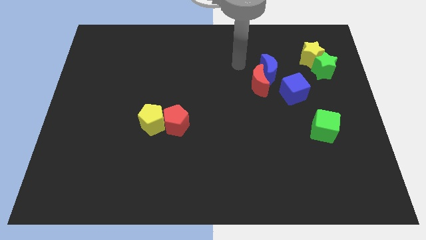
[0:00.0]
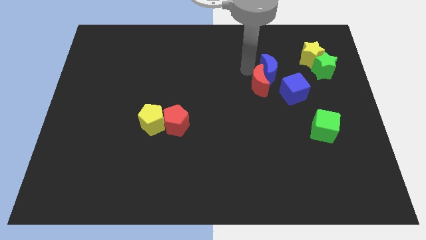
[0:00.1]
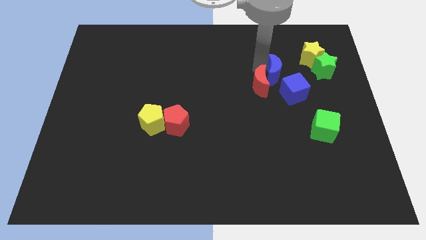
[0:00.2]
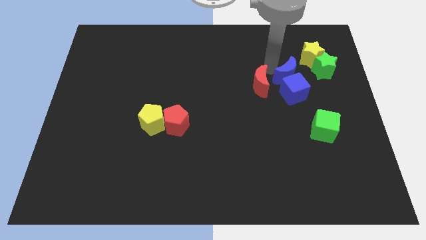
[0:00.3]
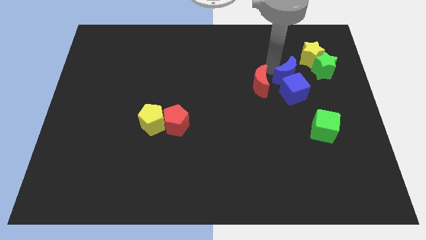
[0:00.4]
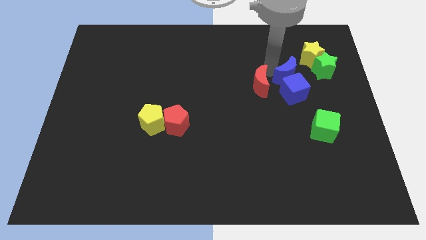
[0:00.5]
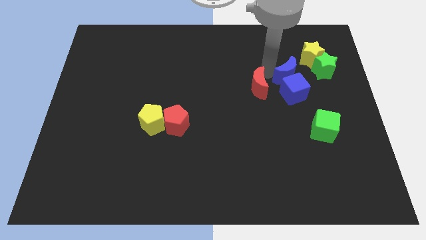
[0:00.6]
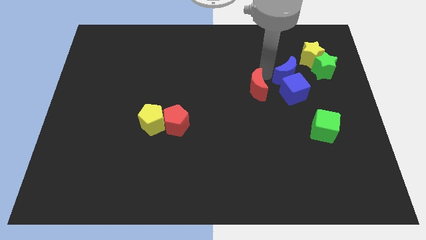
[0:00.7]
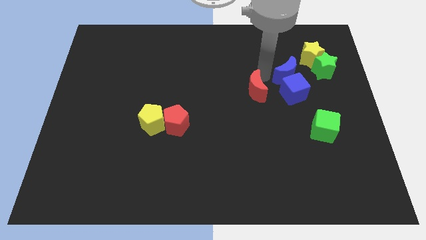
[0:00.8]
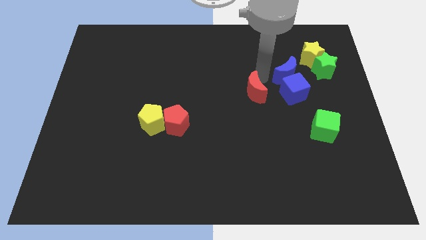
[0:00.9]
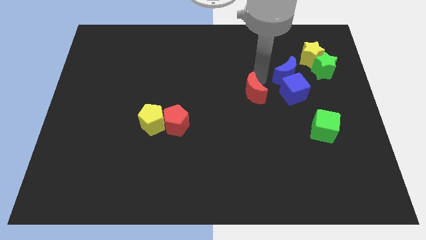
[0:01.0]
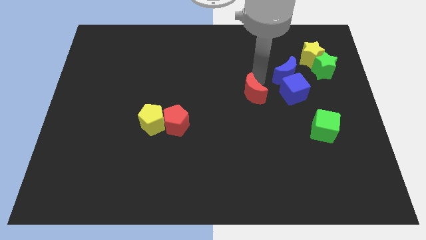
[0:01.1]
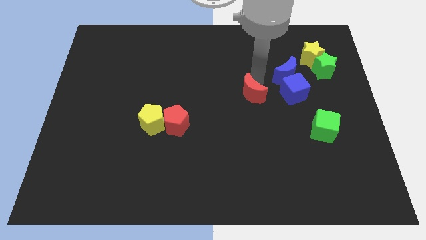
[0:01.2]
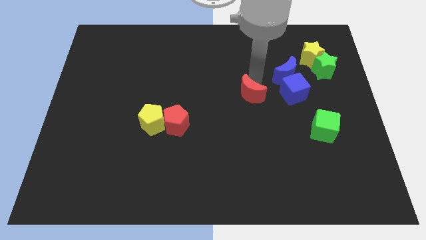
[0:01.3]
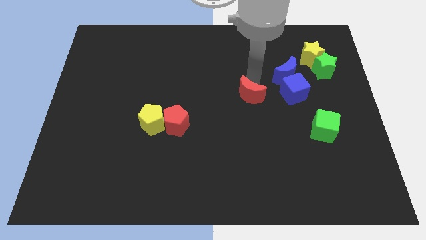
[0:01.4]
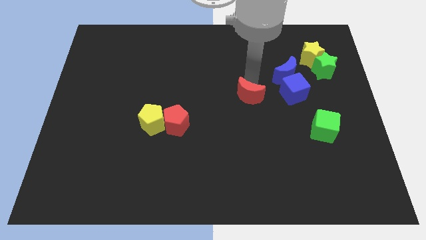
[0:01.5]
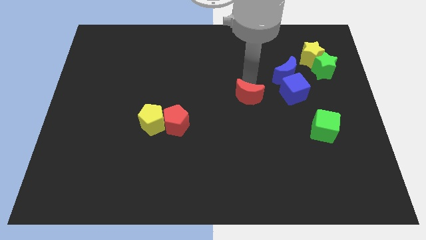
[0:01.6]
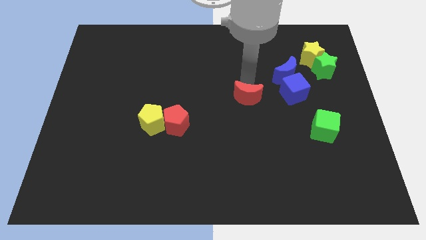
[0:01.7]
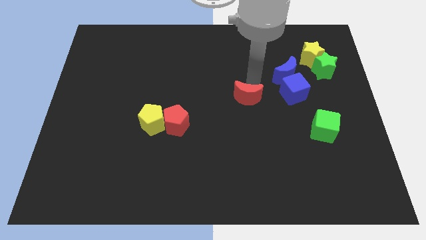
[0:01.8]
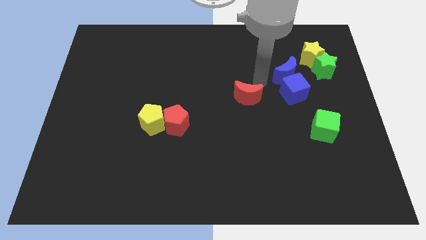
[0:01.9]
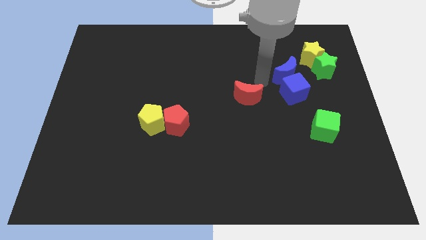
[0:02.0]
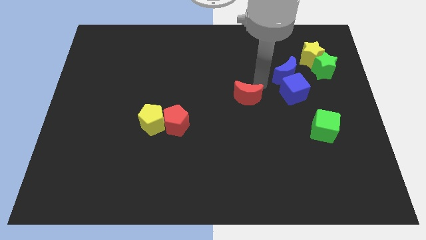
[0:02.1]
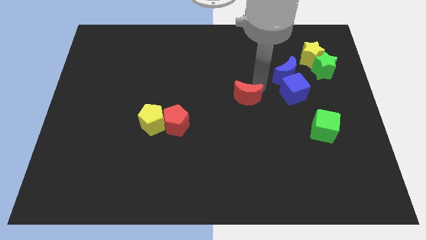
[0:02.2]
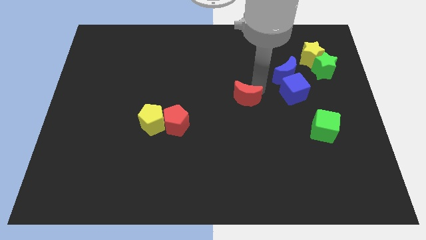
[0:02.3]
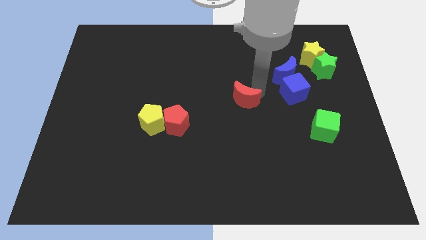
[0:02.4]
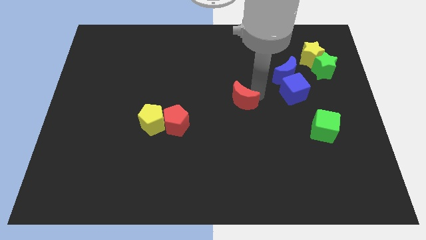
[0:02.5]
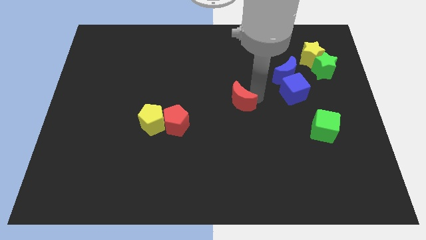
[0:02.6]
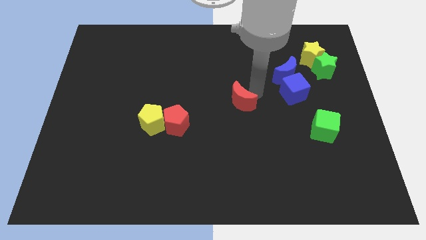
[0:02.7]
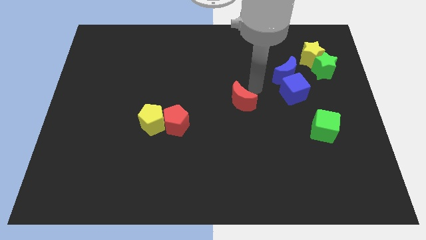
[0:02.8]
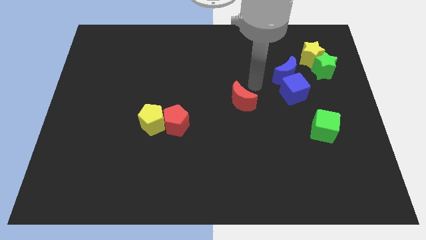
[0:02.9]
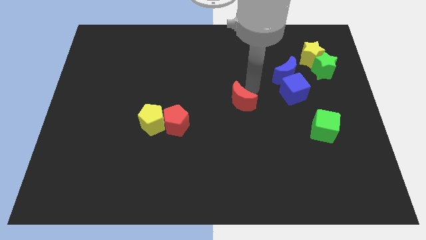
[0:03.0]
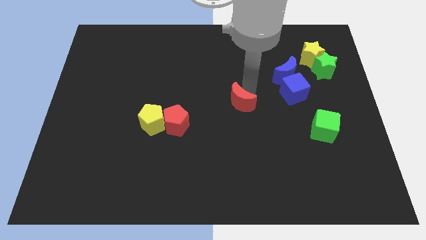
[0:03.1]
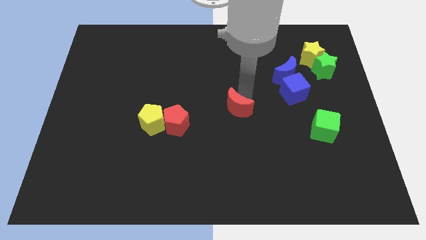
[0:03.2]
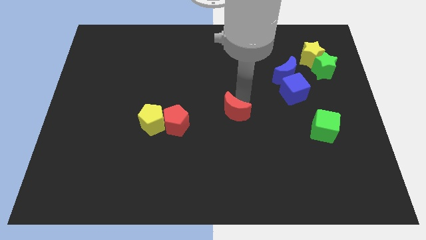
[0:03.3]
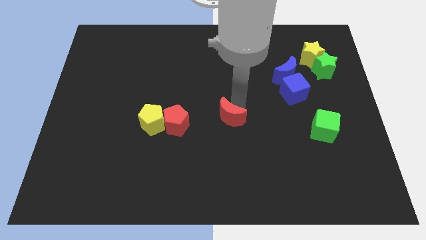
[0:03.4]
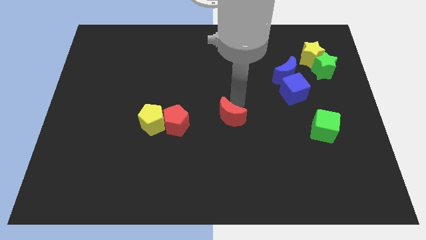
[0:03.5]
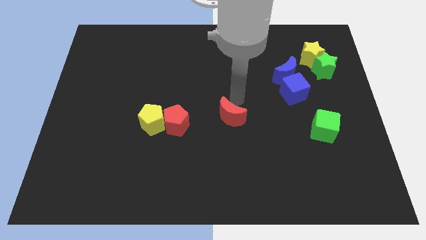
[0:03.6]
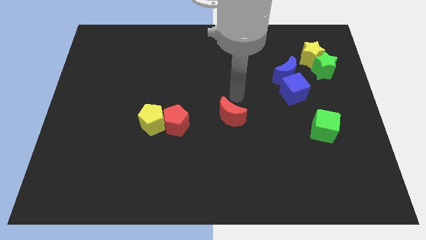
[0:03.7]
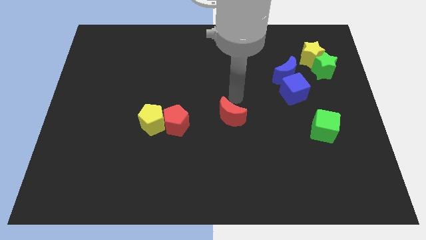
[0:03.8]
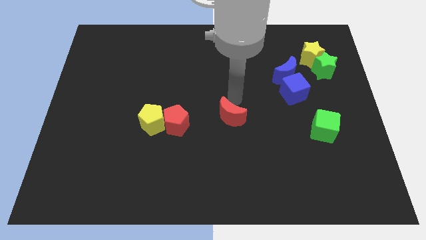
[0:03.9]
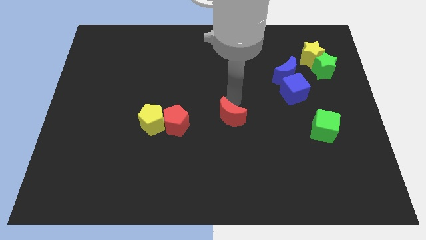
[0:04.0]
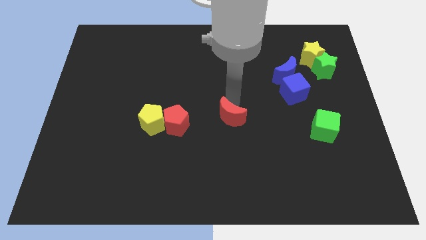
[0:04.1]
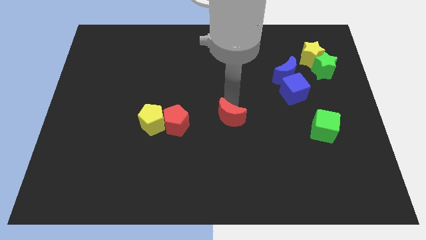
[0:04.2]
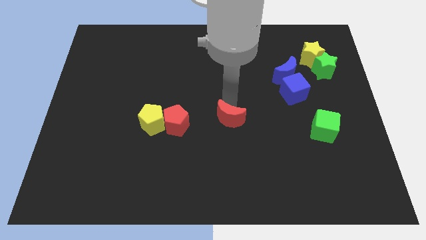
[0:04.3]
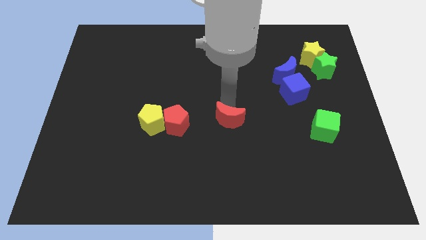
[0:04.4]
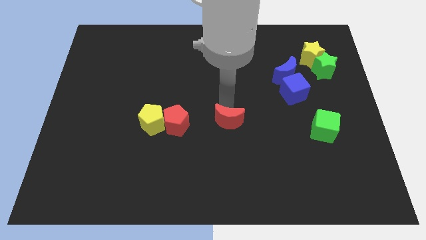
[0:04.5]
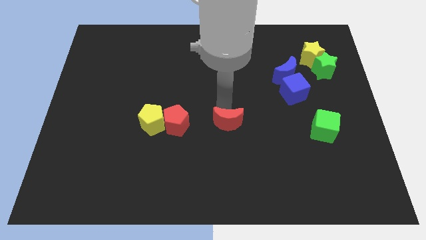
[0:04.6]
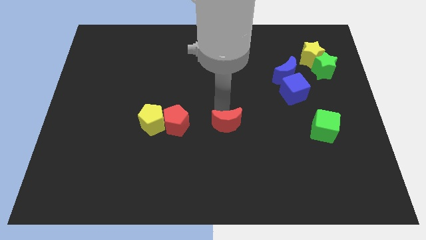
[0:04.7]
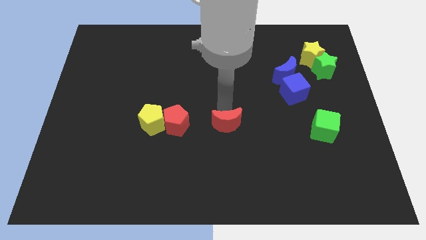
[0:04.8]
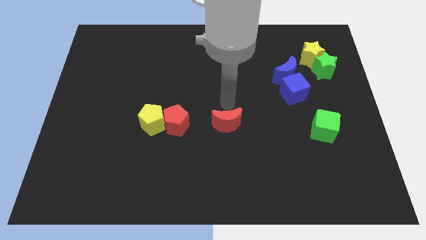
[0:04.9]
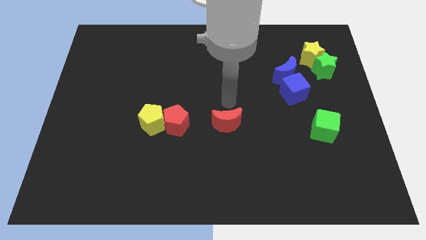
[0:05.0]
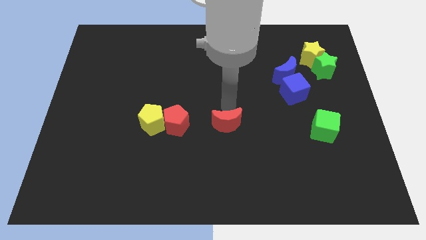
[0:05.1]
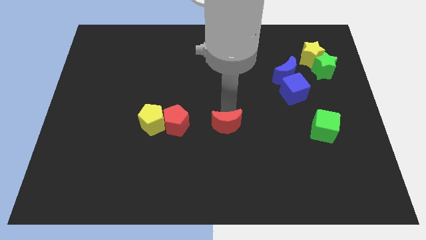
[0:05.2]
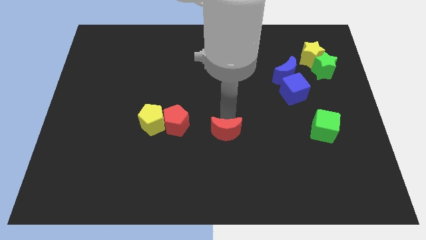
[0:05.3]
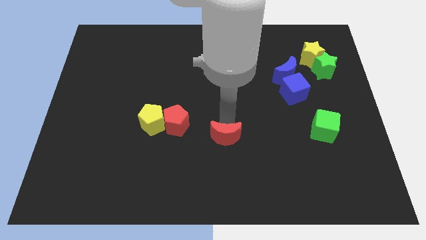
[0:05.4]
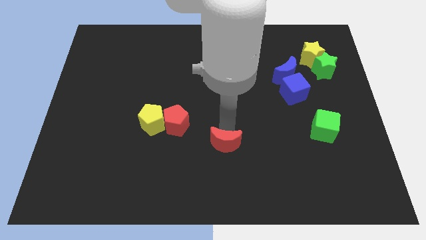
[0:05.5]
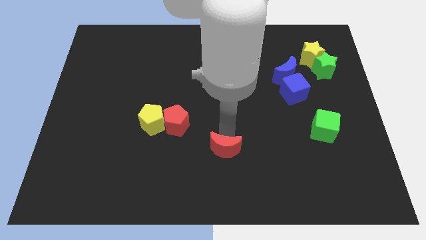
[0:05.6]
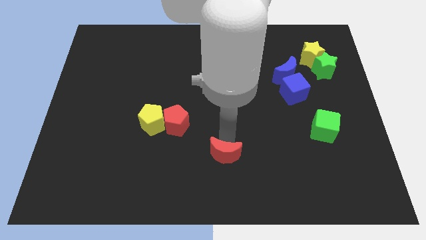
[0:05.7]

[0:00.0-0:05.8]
put the red moon to the bottom

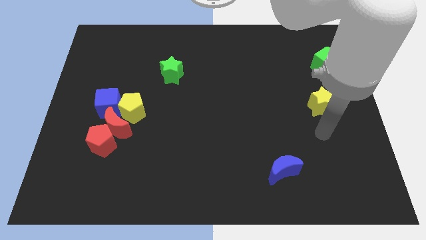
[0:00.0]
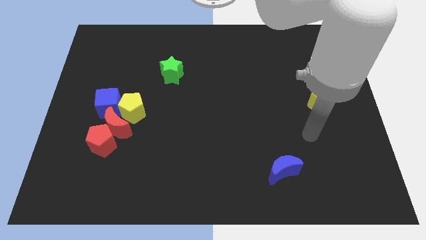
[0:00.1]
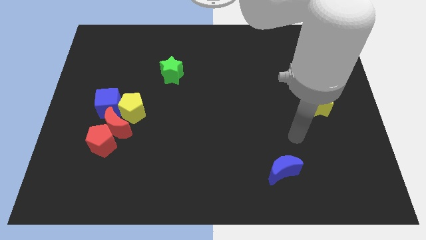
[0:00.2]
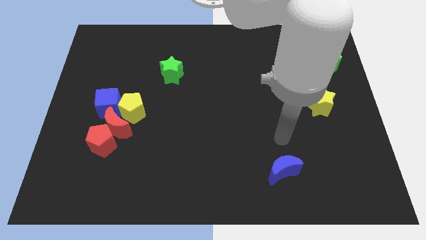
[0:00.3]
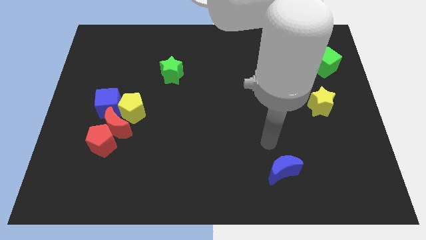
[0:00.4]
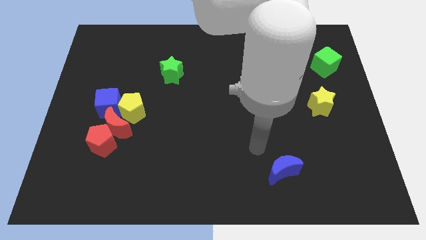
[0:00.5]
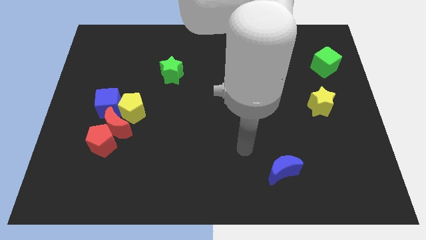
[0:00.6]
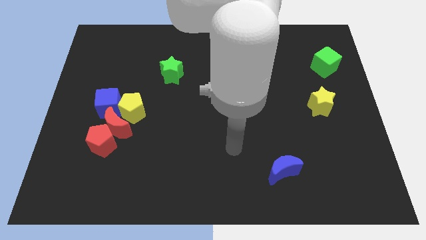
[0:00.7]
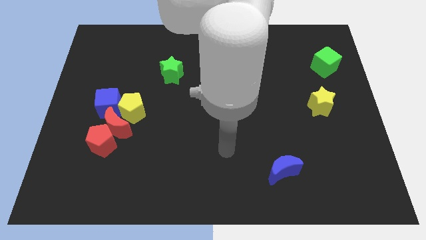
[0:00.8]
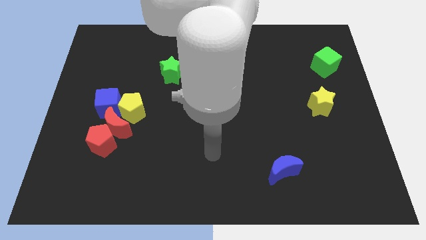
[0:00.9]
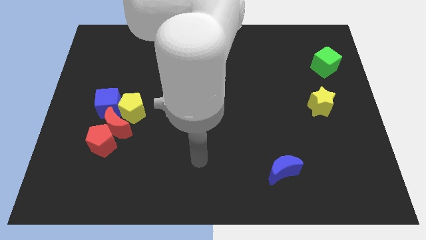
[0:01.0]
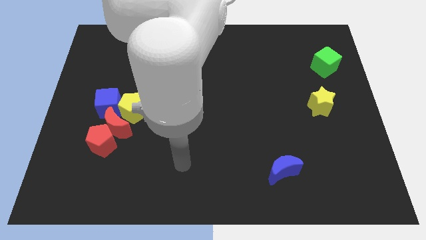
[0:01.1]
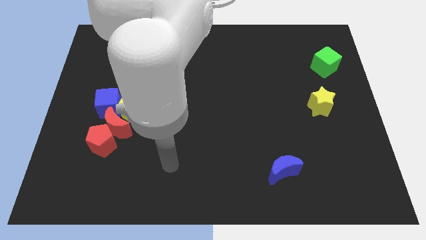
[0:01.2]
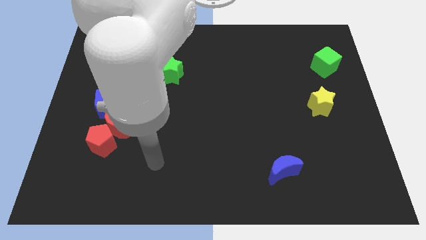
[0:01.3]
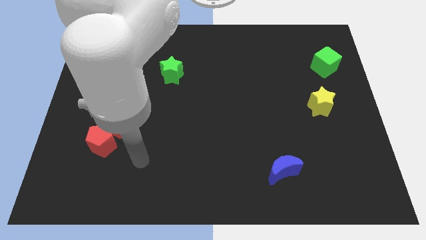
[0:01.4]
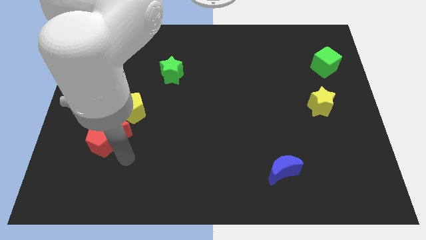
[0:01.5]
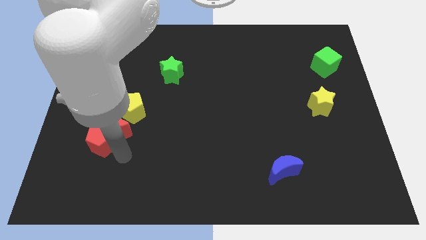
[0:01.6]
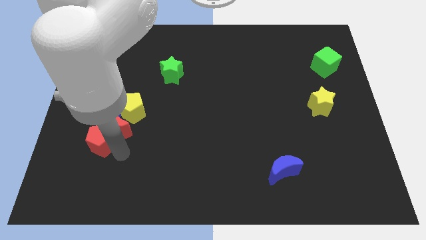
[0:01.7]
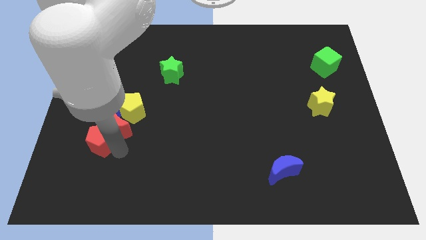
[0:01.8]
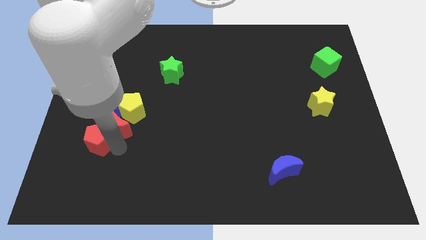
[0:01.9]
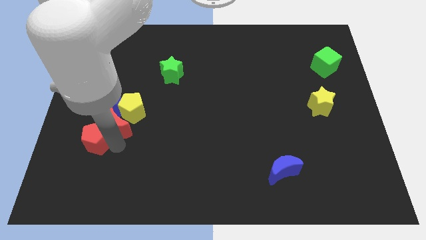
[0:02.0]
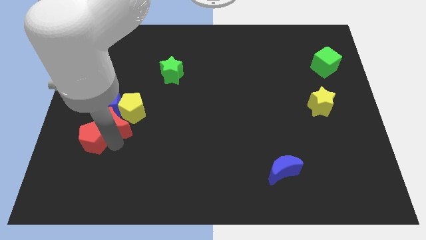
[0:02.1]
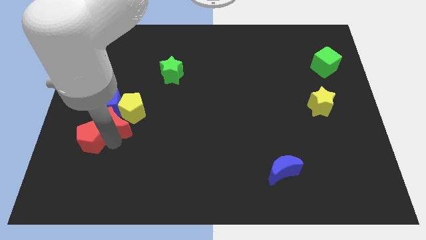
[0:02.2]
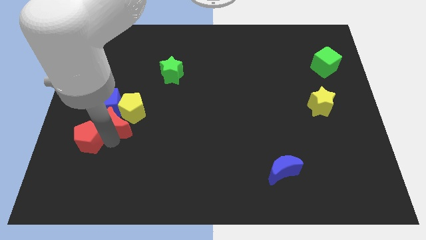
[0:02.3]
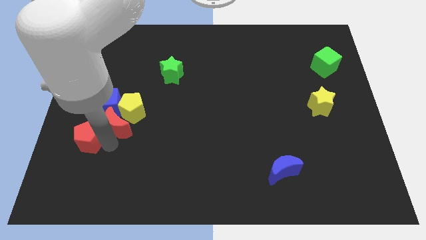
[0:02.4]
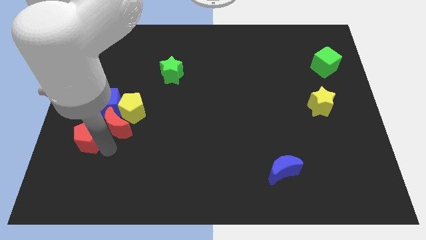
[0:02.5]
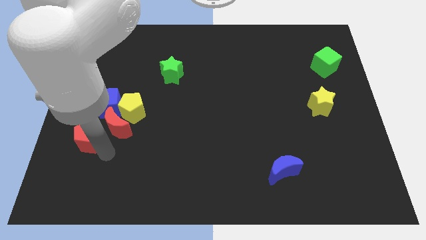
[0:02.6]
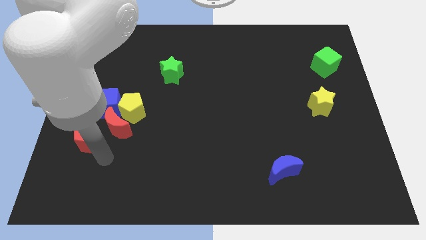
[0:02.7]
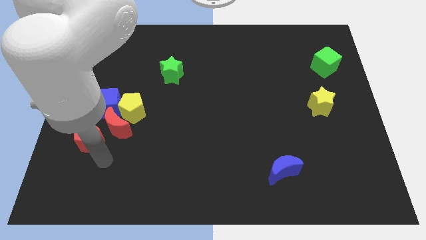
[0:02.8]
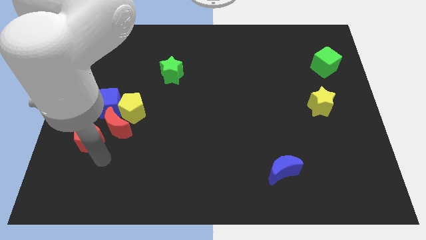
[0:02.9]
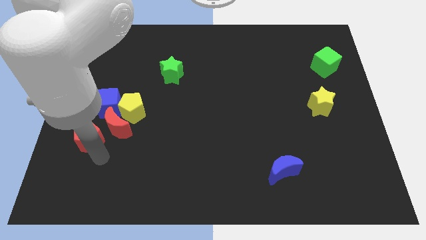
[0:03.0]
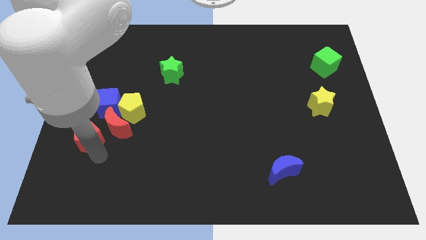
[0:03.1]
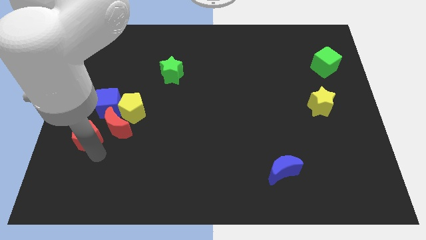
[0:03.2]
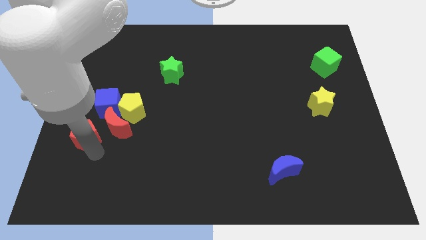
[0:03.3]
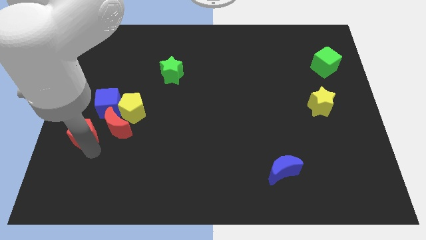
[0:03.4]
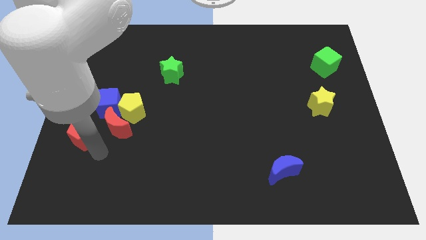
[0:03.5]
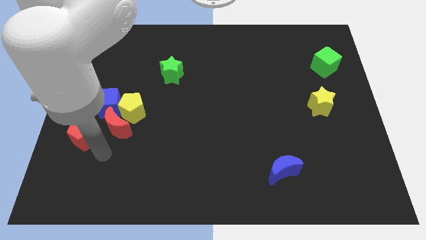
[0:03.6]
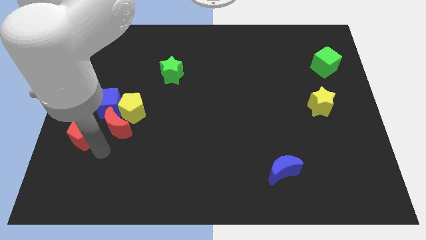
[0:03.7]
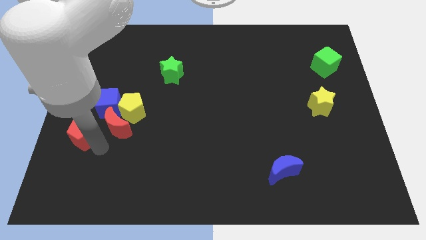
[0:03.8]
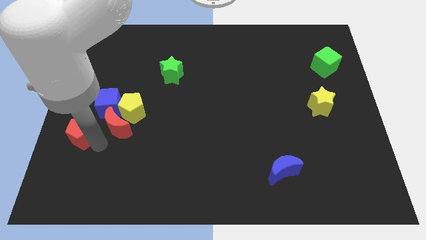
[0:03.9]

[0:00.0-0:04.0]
move the red pentagon to the center left
